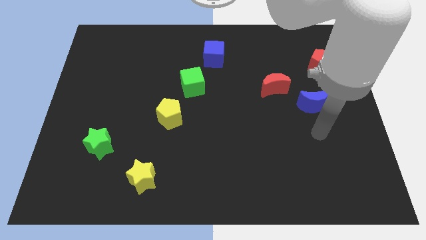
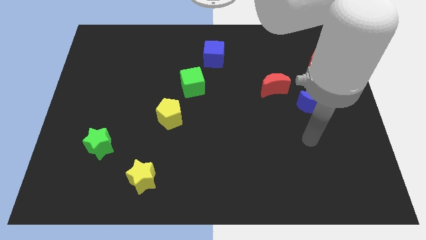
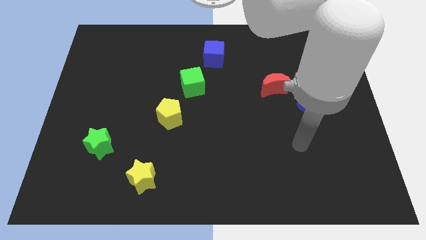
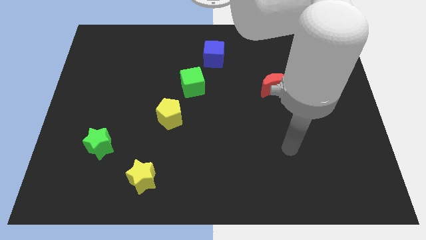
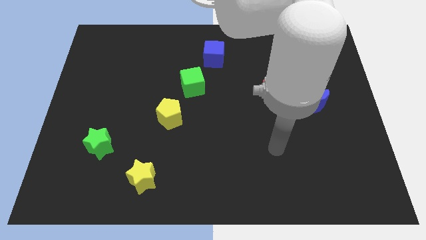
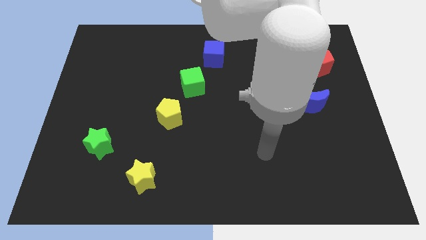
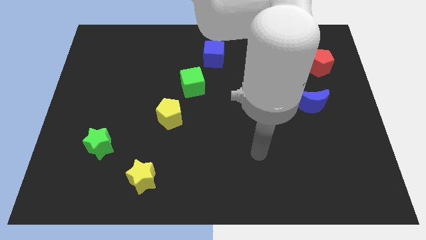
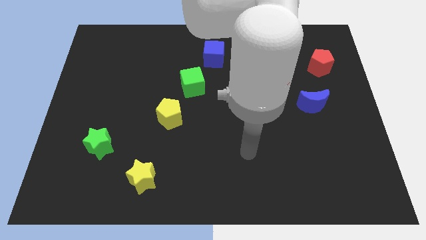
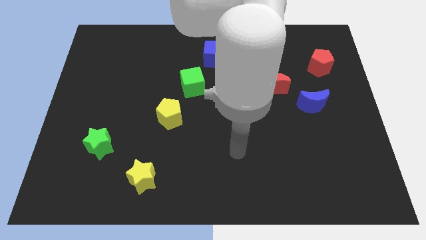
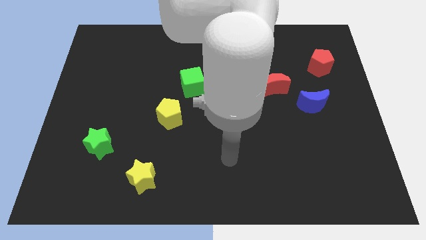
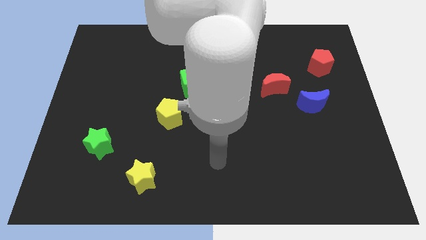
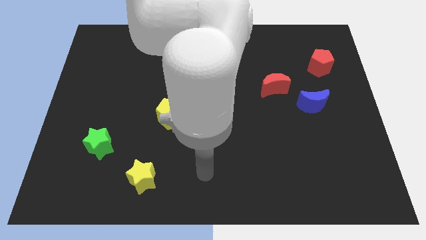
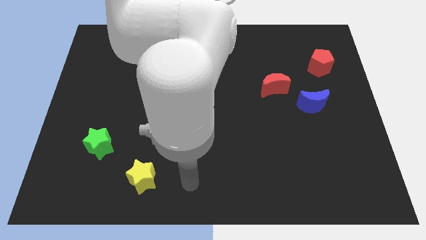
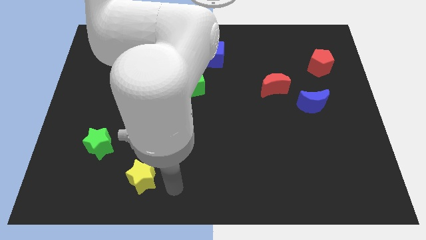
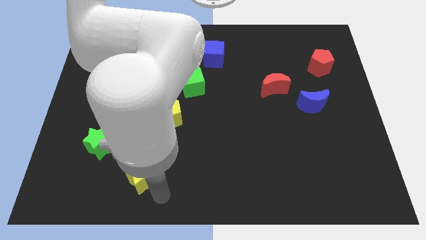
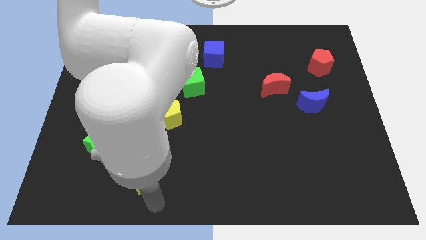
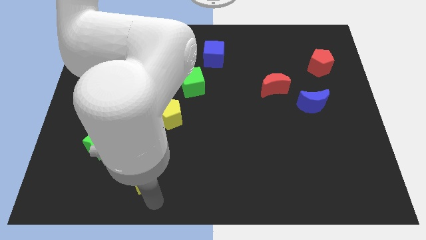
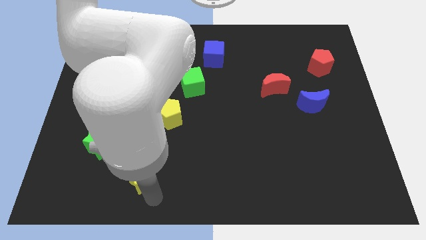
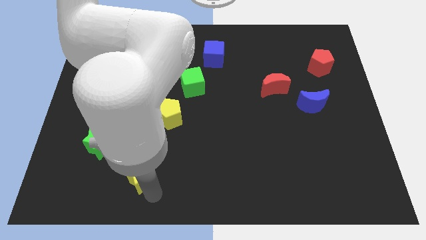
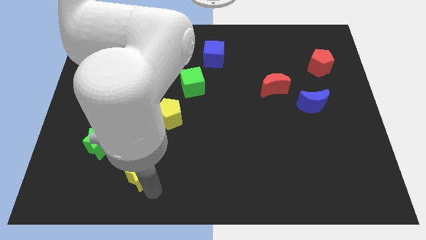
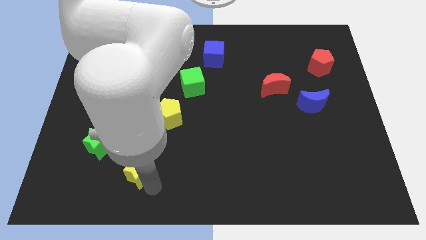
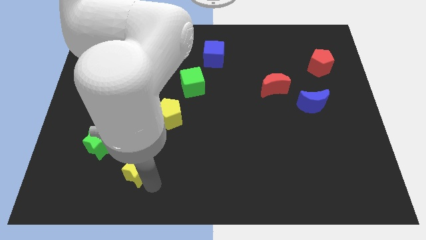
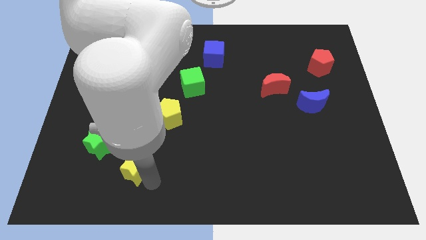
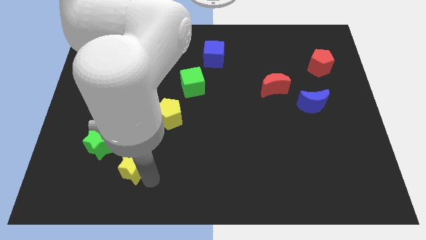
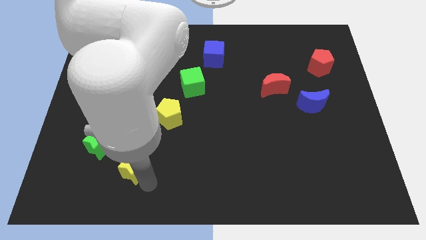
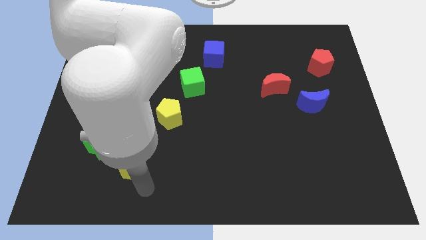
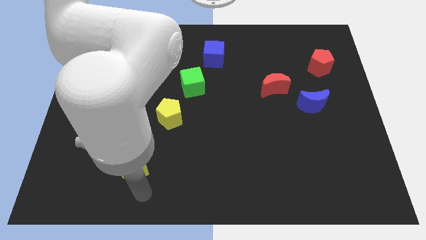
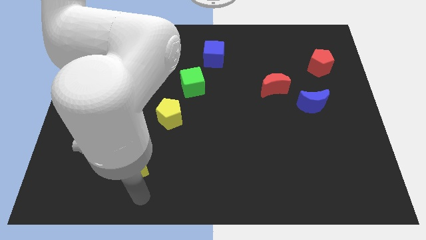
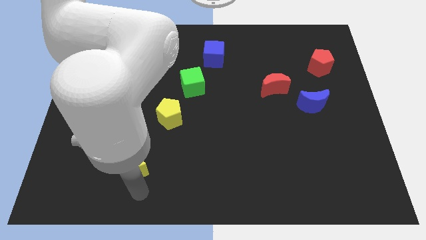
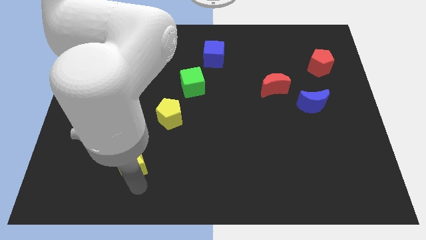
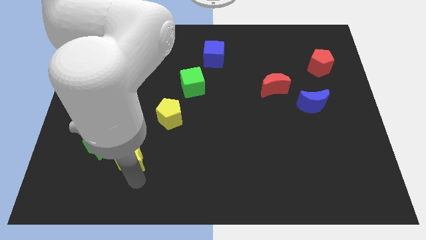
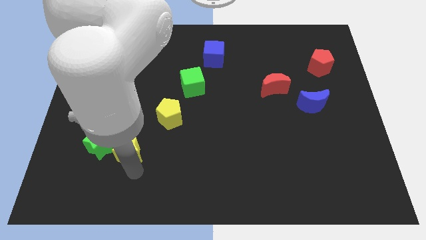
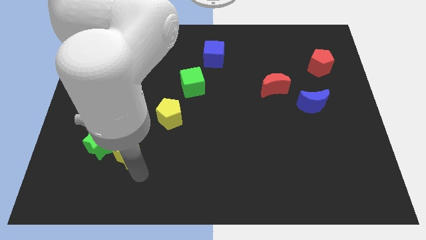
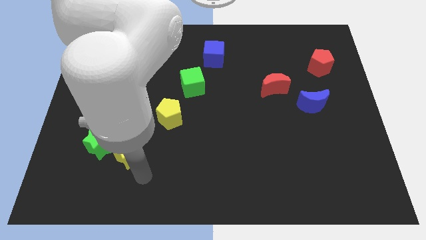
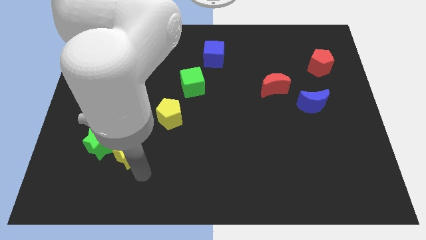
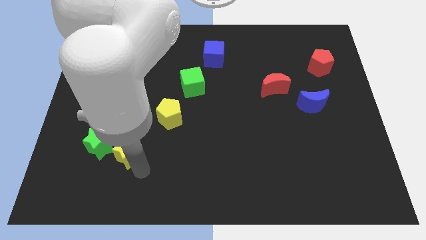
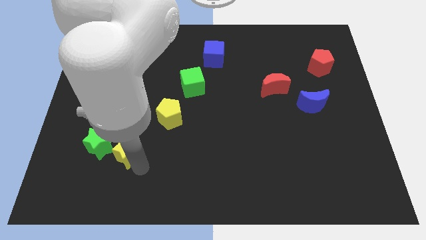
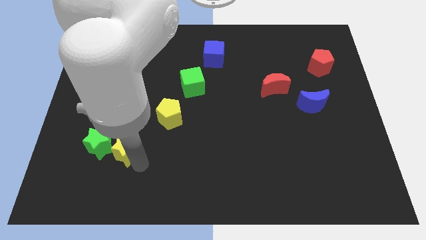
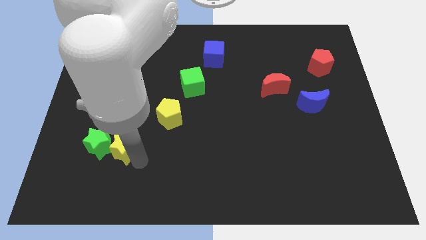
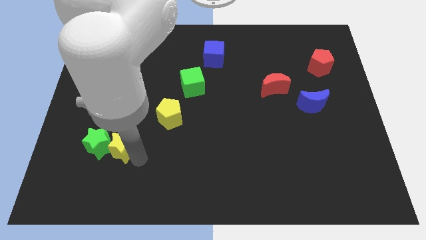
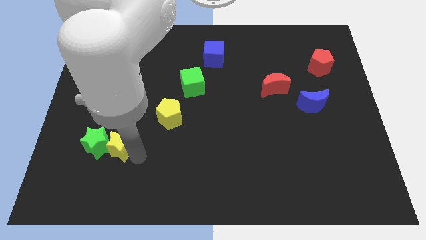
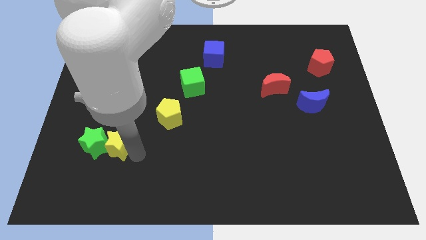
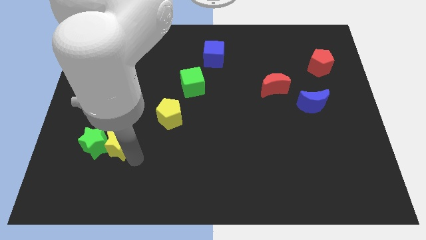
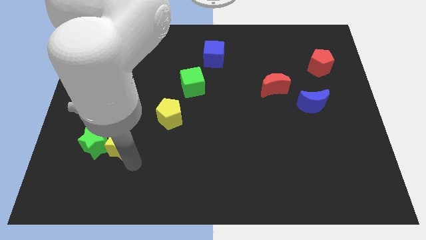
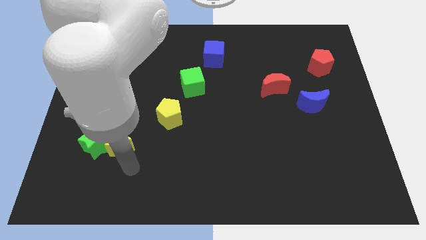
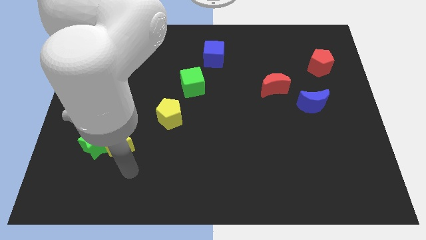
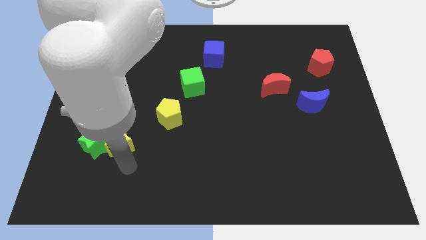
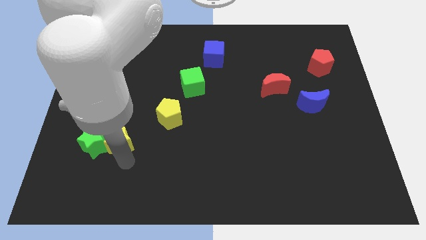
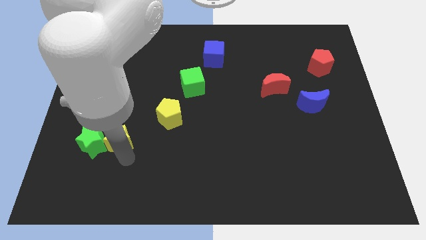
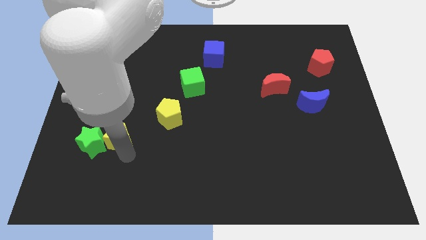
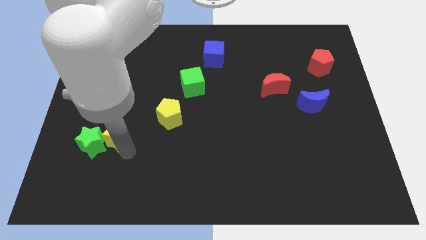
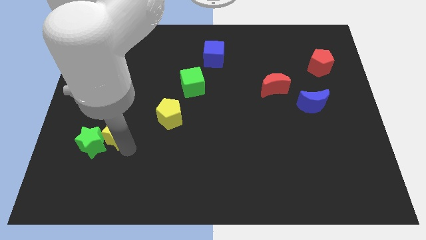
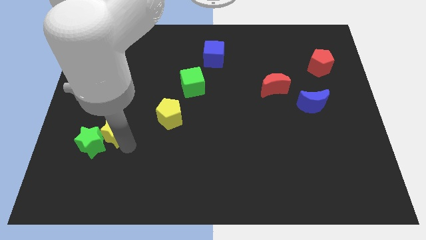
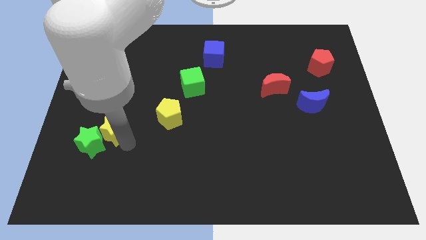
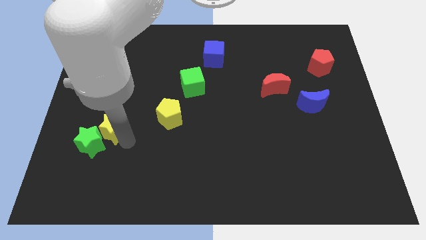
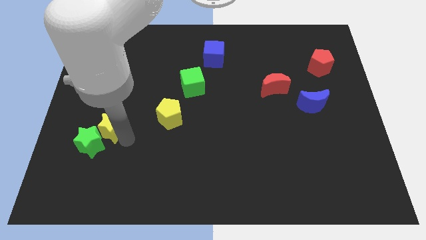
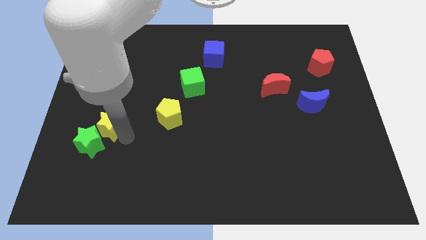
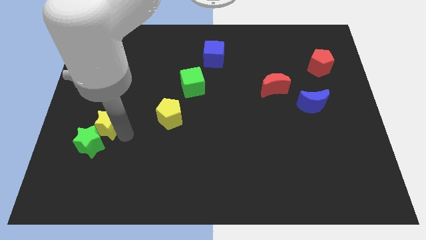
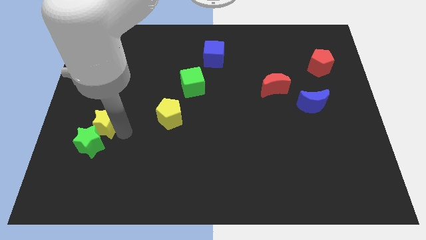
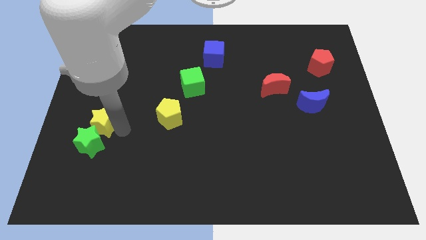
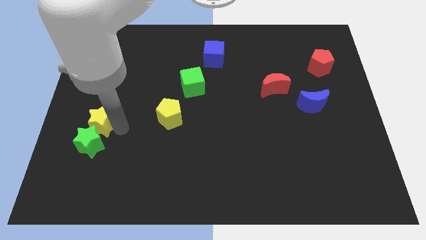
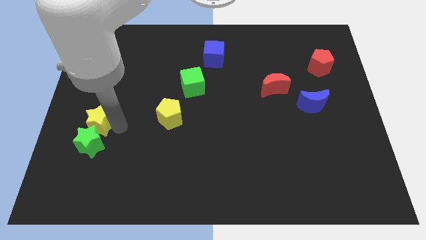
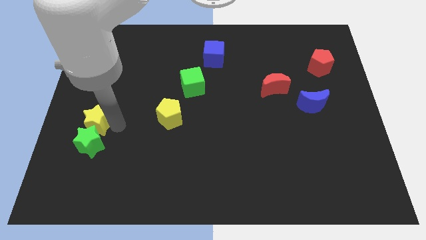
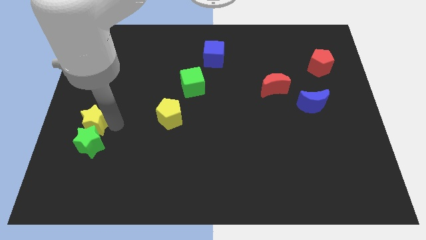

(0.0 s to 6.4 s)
put the yellow star to the left side of the board
